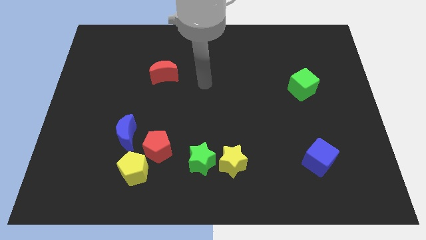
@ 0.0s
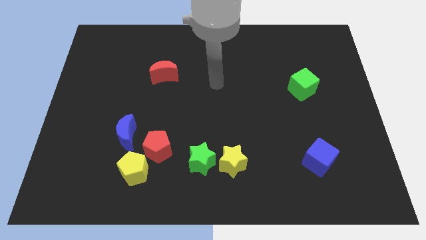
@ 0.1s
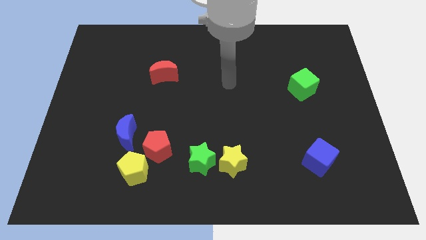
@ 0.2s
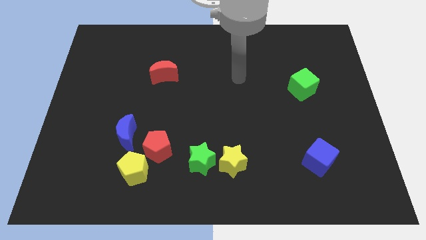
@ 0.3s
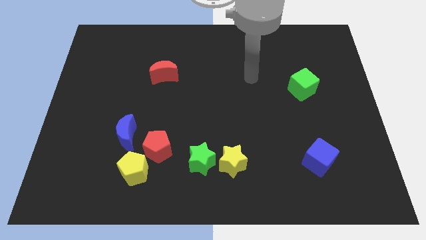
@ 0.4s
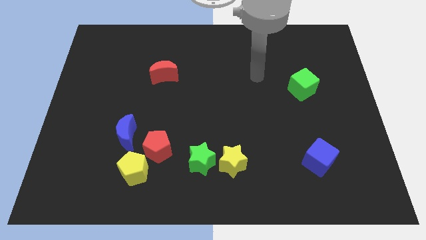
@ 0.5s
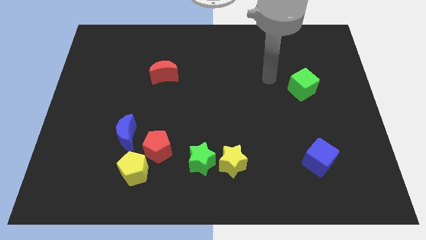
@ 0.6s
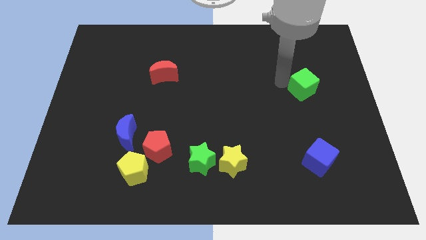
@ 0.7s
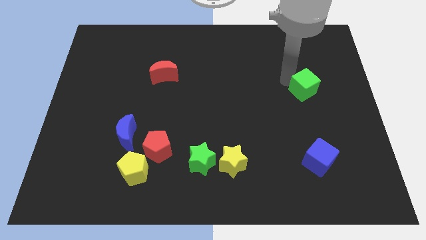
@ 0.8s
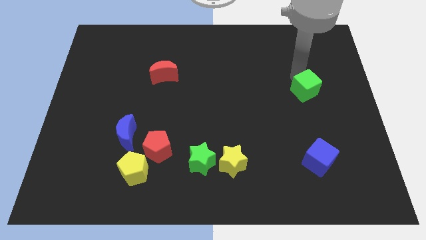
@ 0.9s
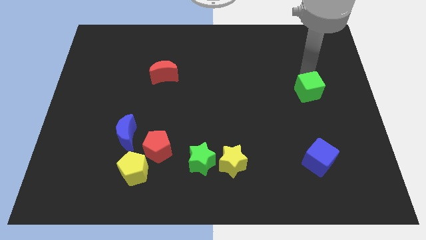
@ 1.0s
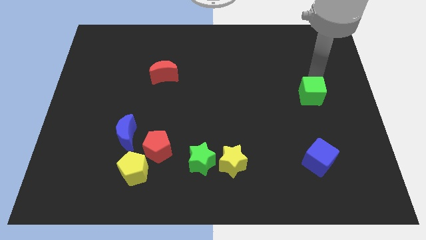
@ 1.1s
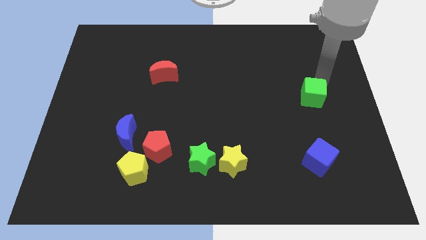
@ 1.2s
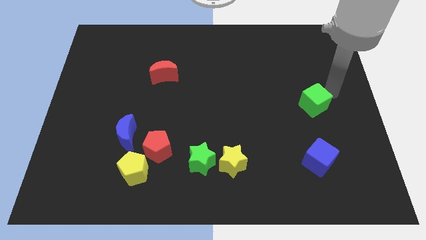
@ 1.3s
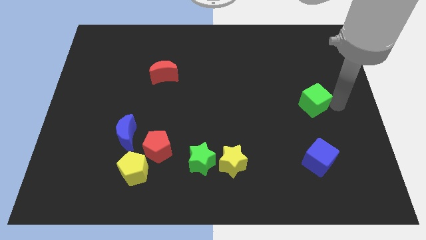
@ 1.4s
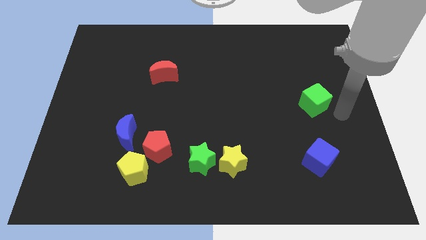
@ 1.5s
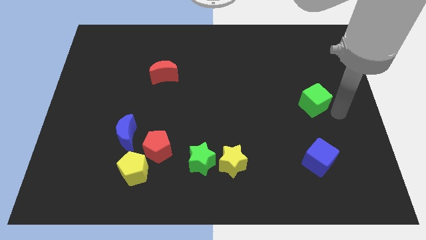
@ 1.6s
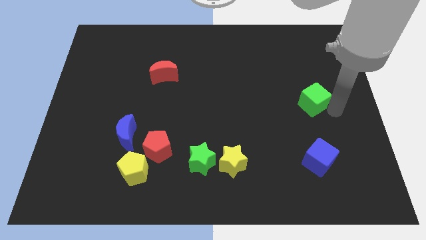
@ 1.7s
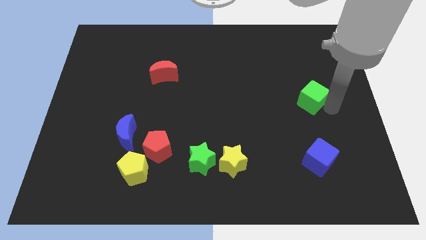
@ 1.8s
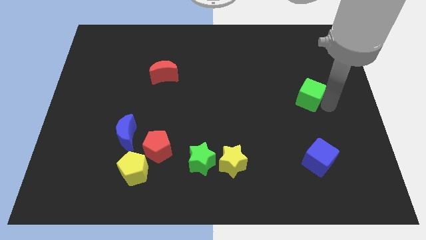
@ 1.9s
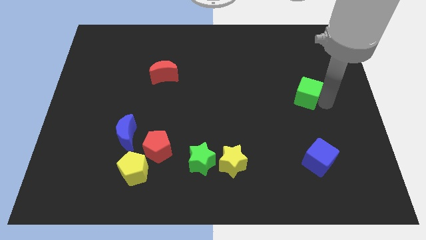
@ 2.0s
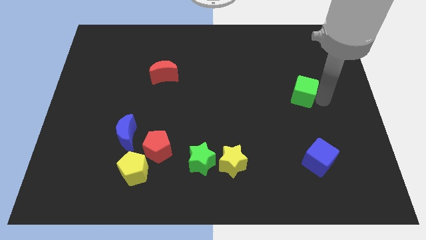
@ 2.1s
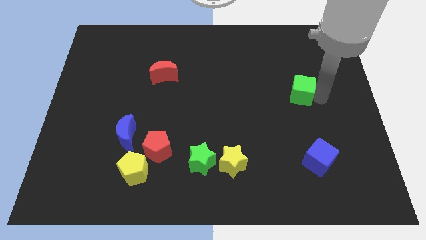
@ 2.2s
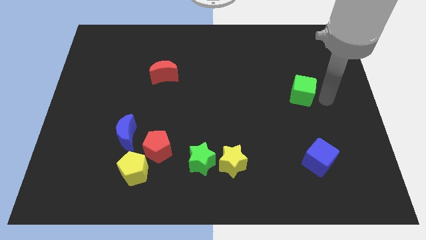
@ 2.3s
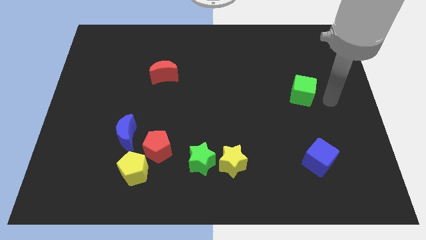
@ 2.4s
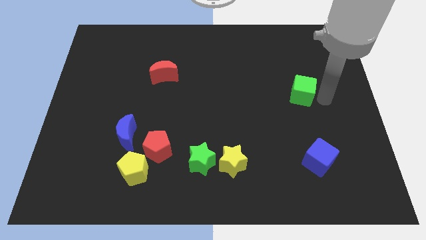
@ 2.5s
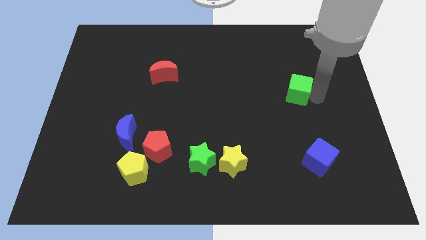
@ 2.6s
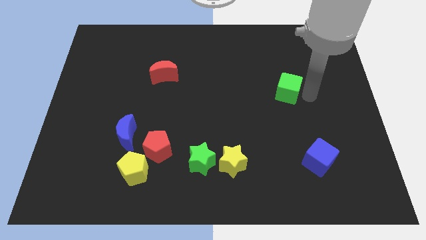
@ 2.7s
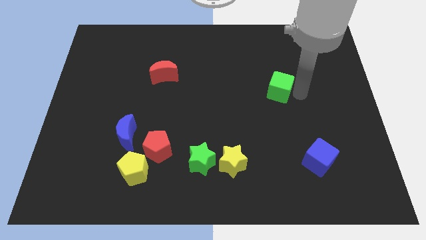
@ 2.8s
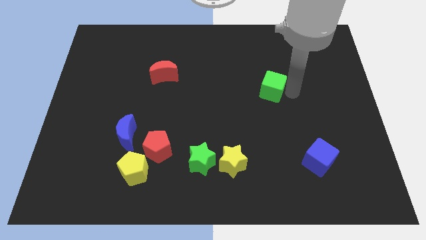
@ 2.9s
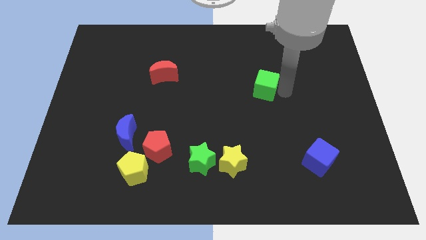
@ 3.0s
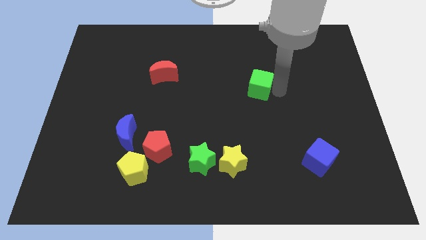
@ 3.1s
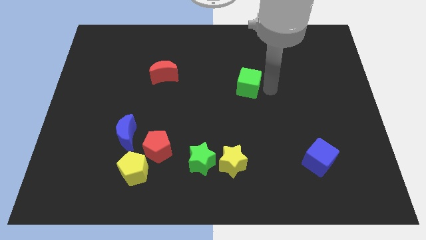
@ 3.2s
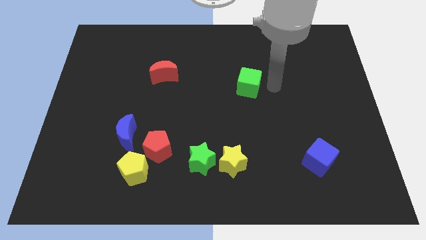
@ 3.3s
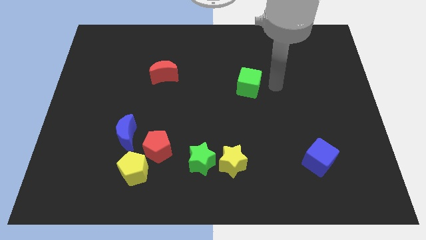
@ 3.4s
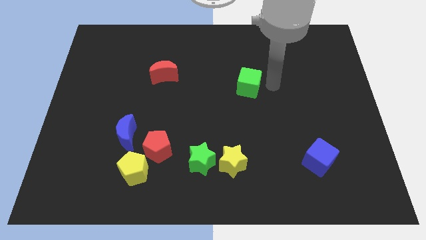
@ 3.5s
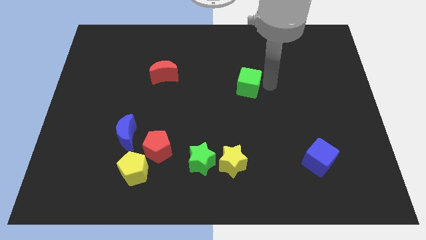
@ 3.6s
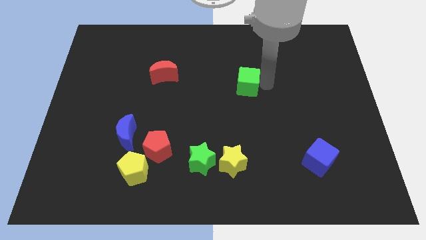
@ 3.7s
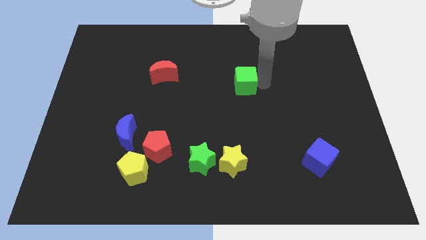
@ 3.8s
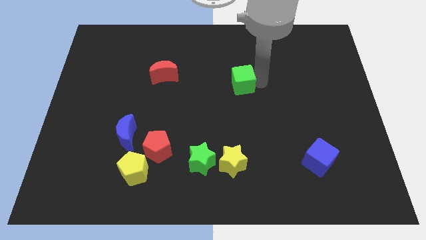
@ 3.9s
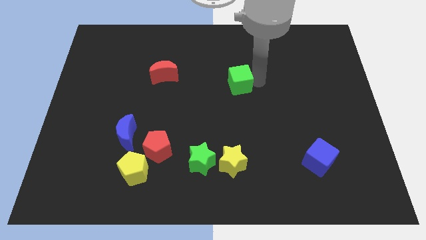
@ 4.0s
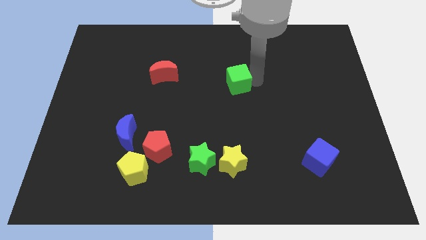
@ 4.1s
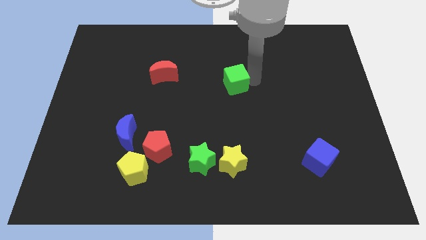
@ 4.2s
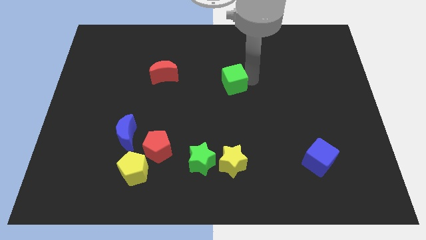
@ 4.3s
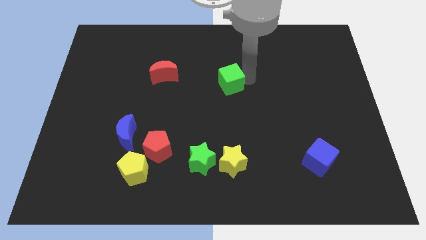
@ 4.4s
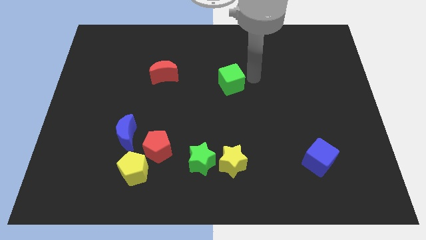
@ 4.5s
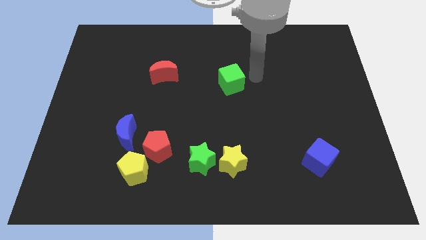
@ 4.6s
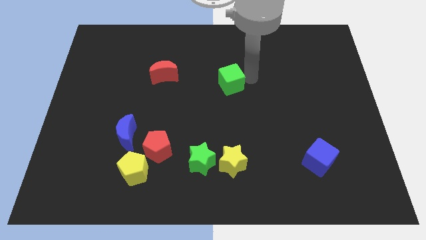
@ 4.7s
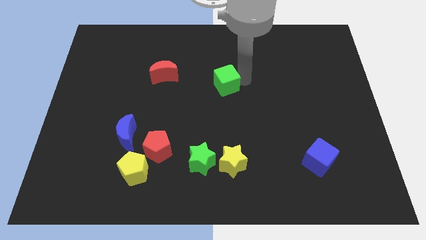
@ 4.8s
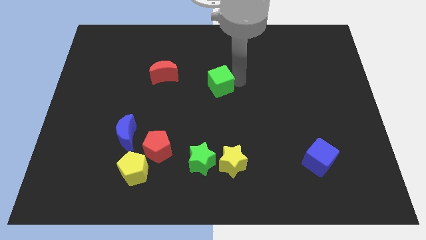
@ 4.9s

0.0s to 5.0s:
push the green cube to the left

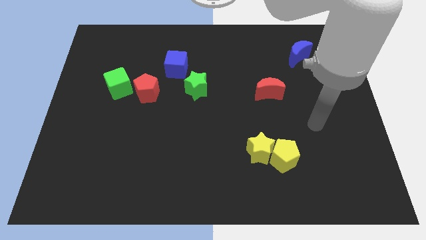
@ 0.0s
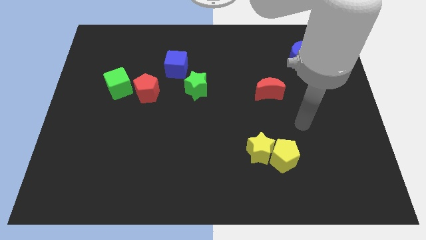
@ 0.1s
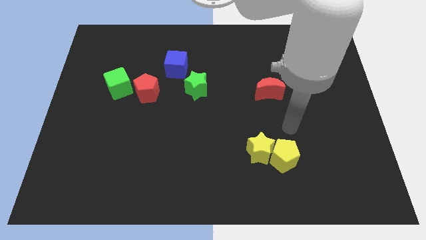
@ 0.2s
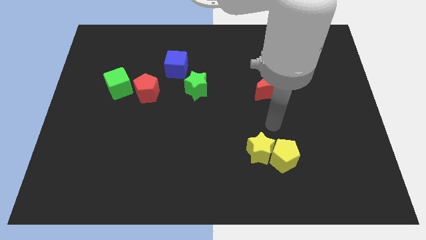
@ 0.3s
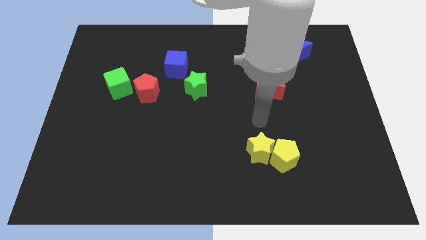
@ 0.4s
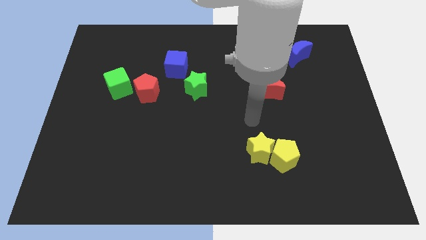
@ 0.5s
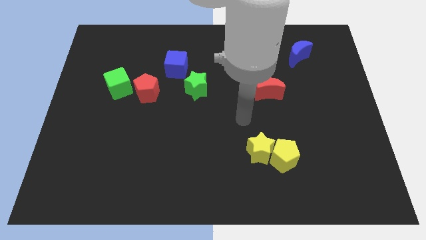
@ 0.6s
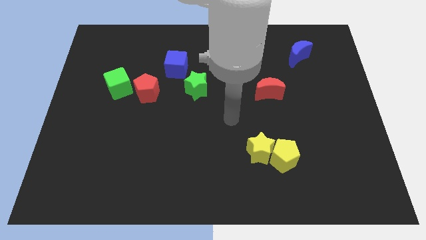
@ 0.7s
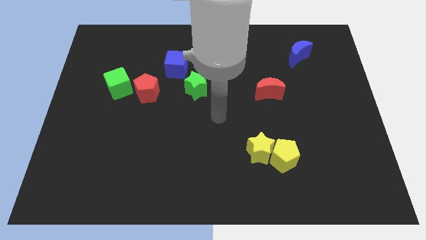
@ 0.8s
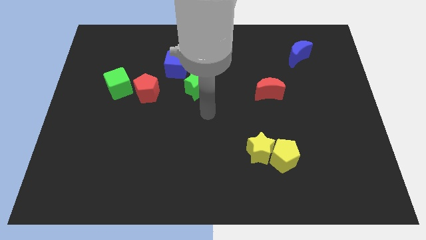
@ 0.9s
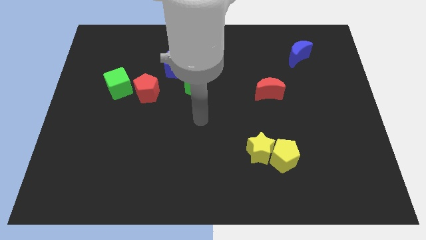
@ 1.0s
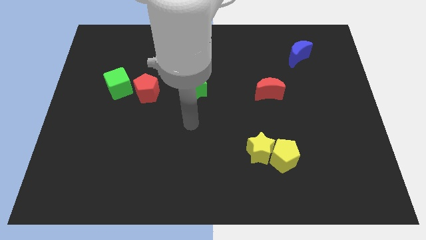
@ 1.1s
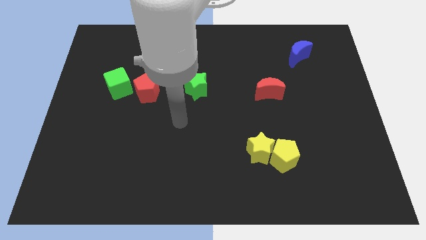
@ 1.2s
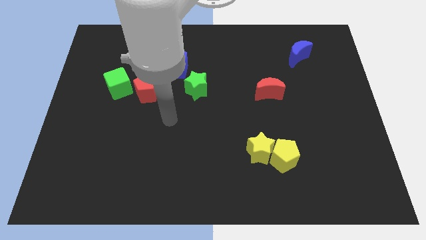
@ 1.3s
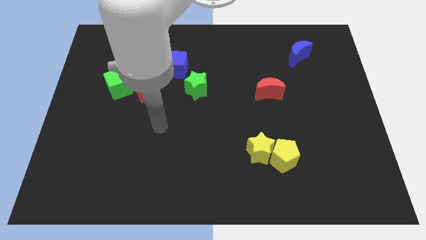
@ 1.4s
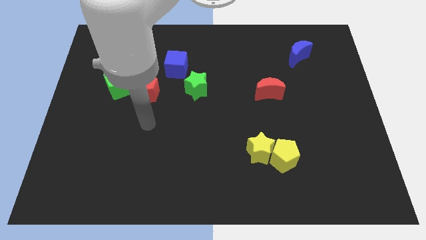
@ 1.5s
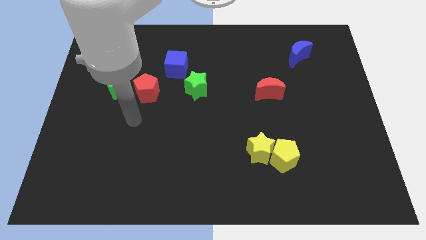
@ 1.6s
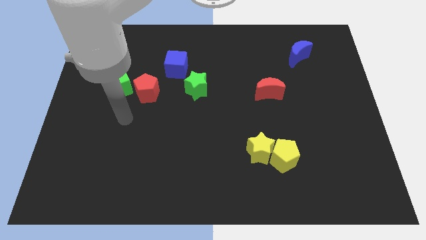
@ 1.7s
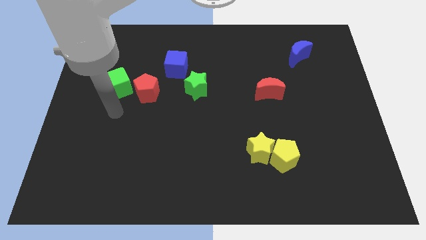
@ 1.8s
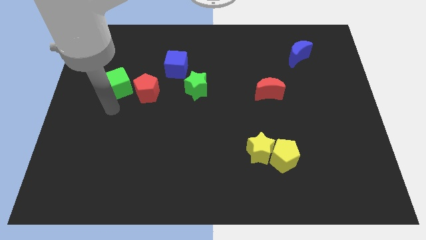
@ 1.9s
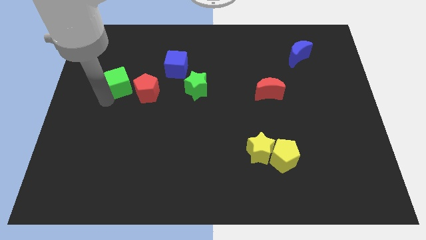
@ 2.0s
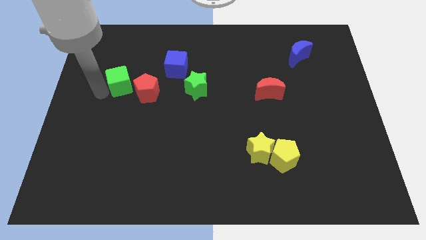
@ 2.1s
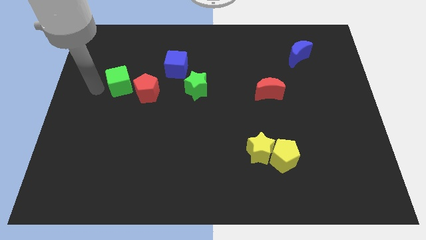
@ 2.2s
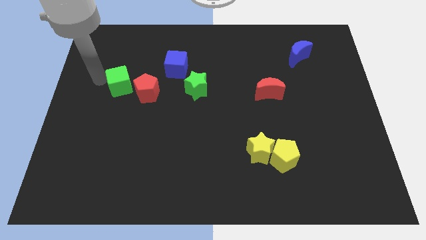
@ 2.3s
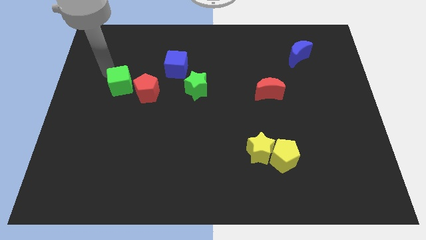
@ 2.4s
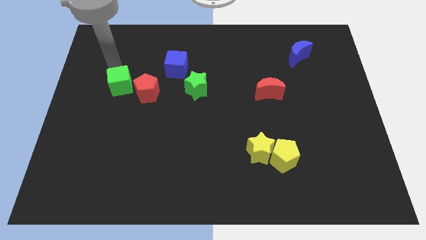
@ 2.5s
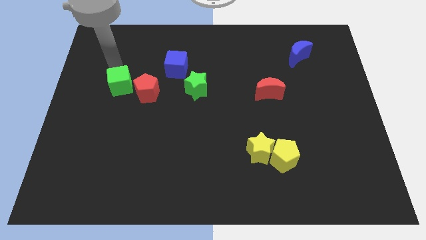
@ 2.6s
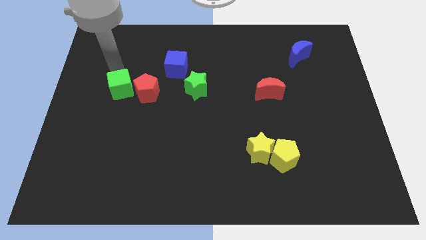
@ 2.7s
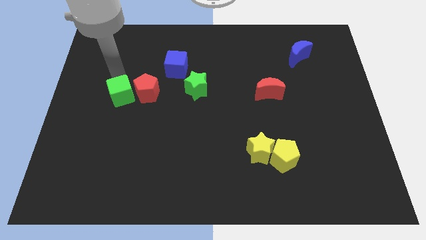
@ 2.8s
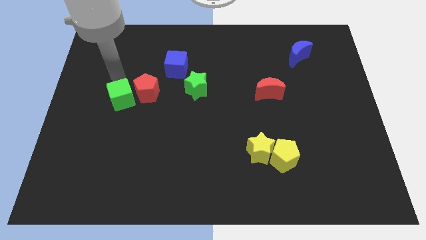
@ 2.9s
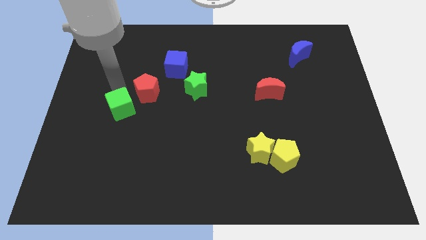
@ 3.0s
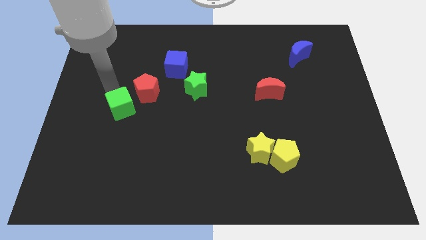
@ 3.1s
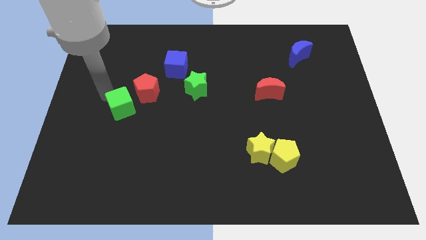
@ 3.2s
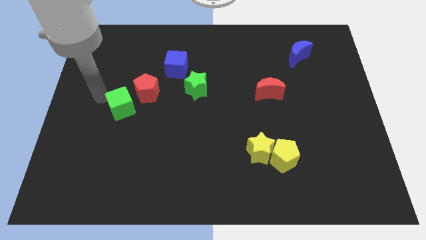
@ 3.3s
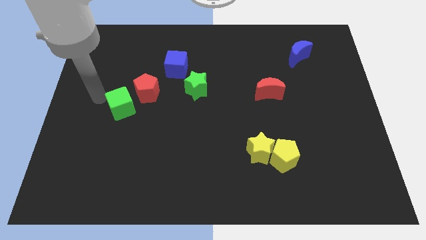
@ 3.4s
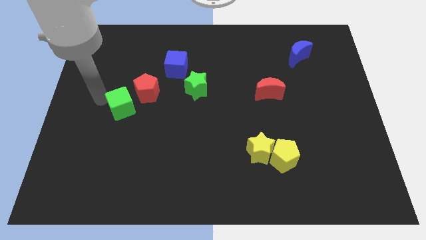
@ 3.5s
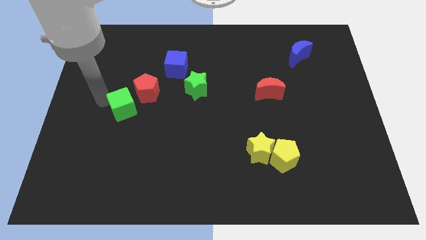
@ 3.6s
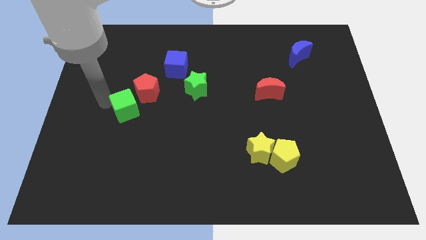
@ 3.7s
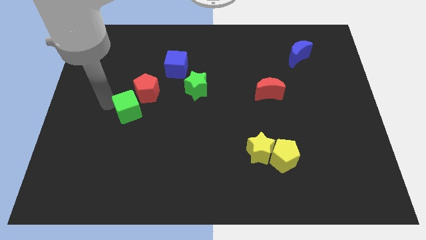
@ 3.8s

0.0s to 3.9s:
slightly slide the green cube down and then to the right
